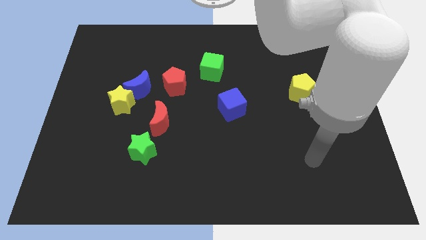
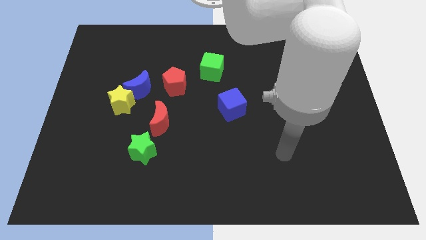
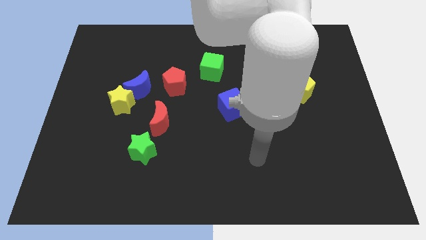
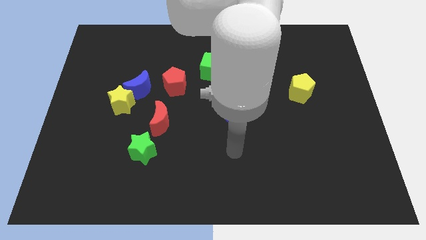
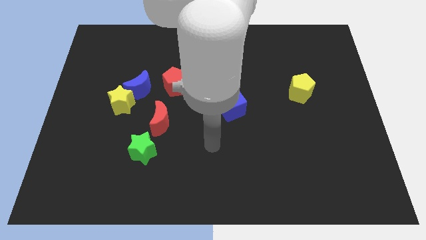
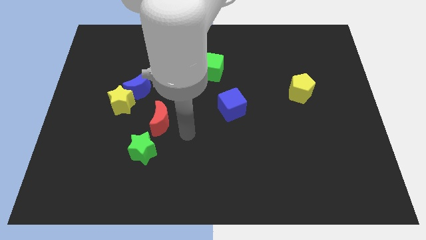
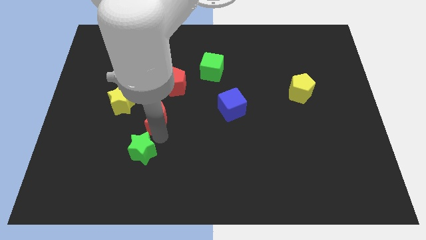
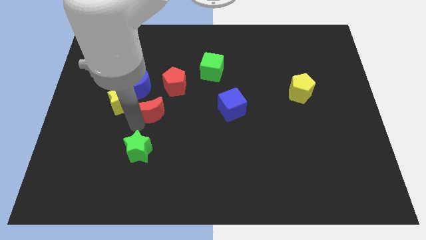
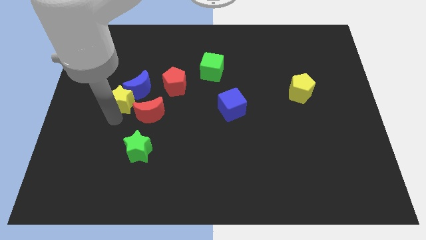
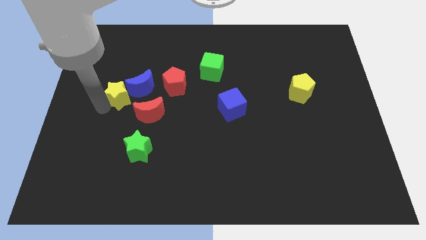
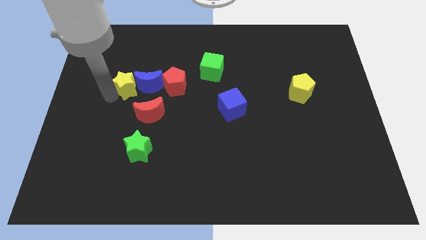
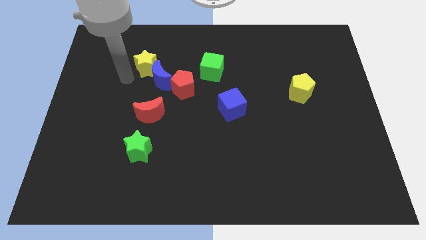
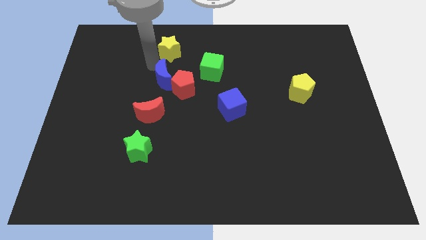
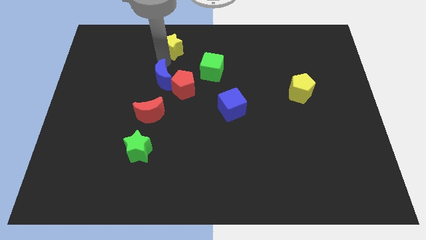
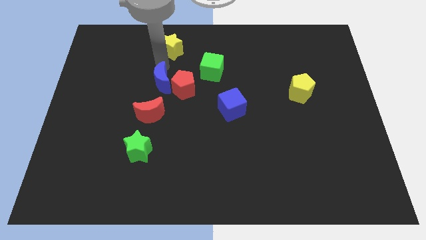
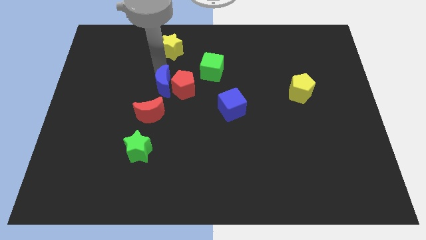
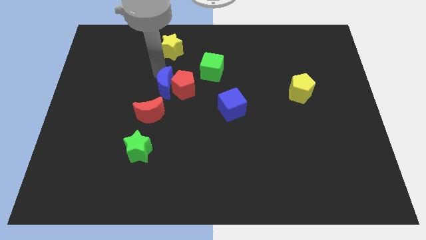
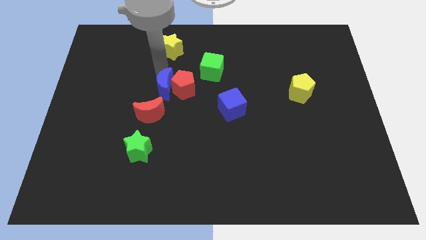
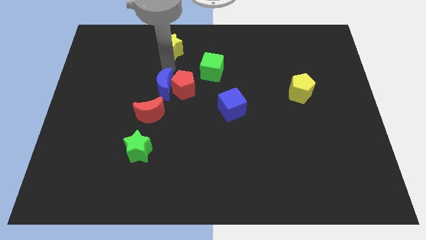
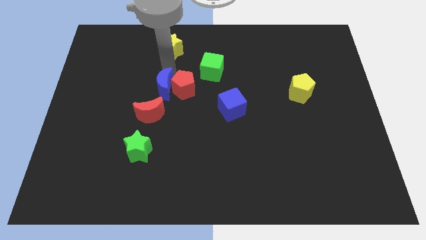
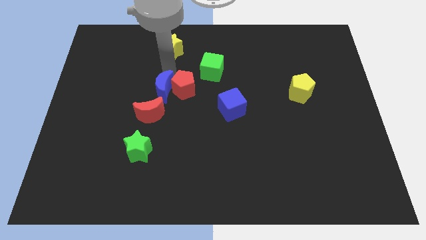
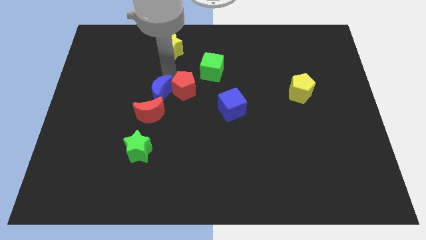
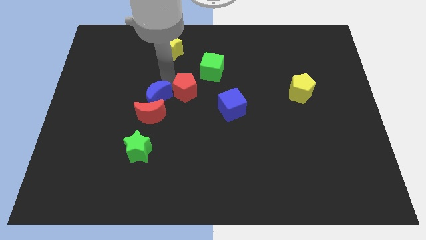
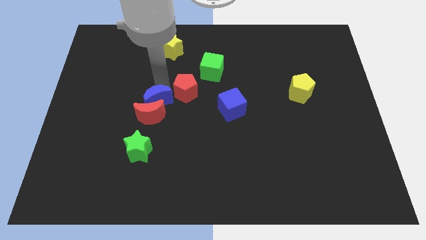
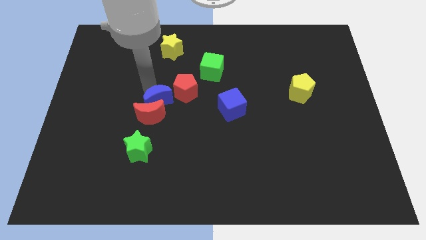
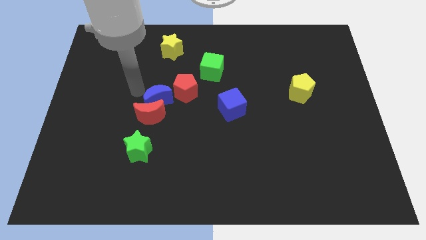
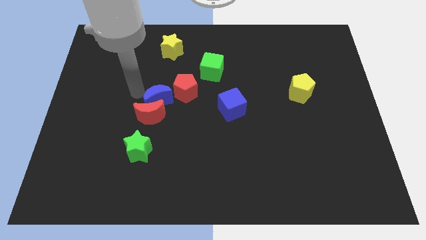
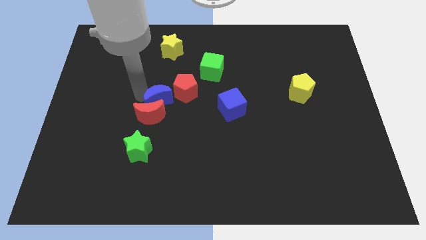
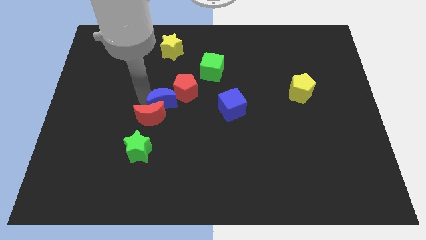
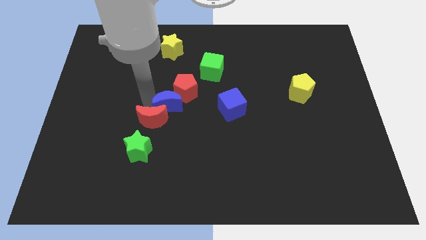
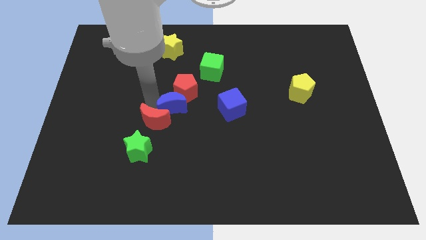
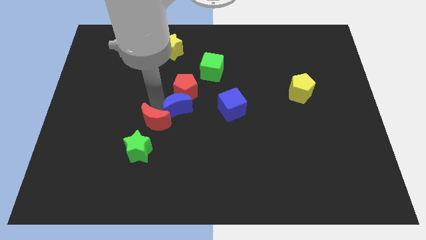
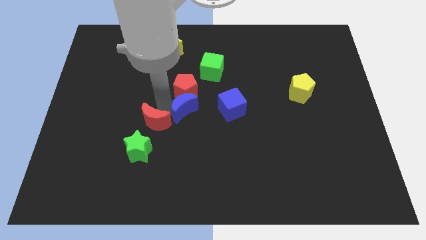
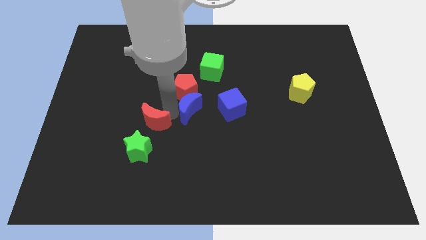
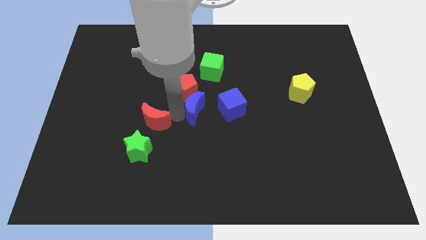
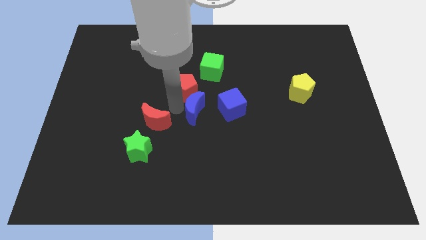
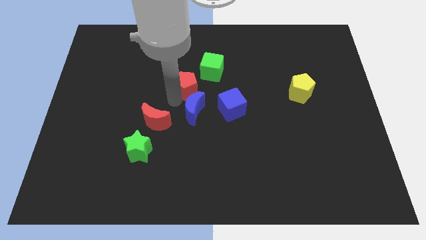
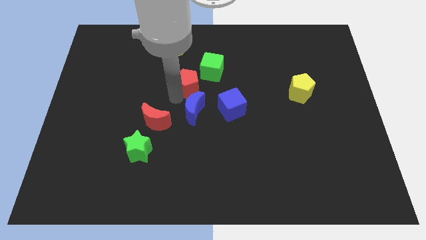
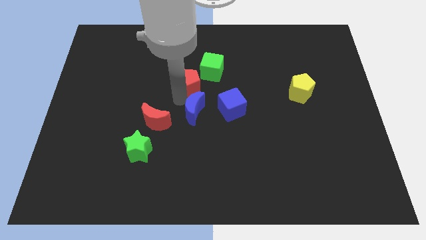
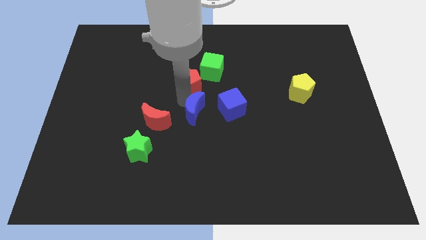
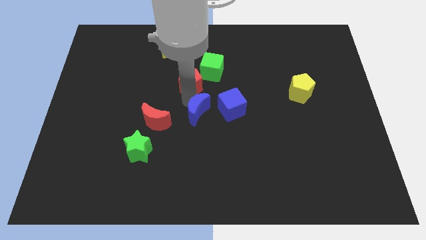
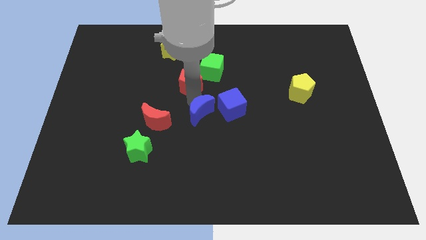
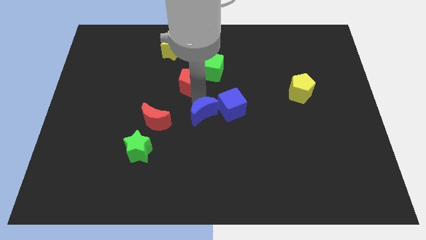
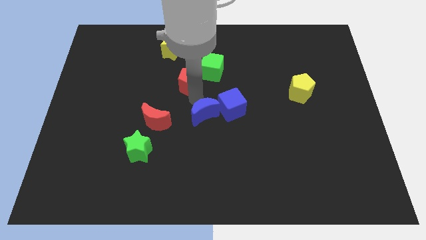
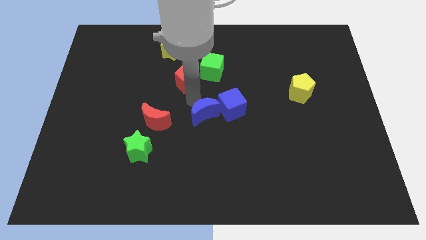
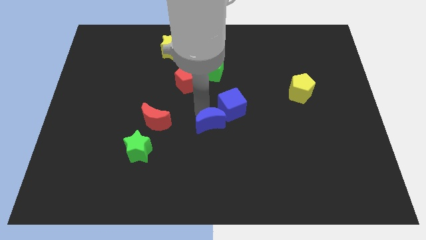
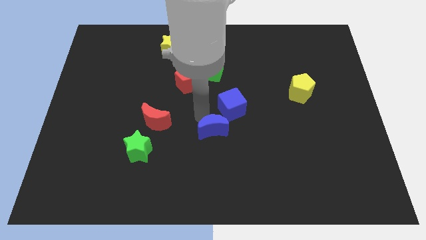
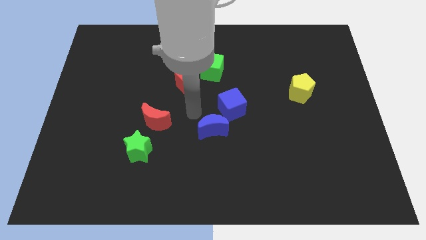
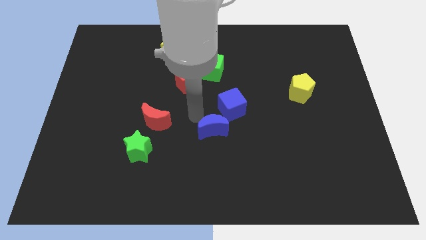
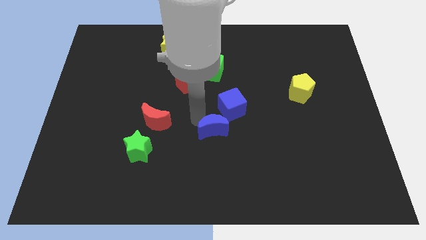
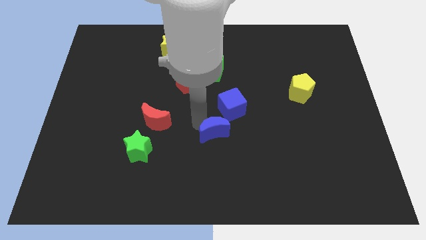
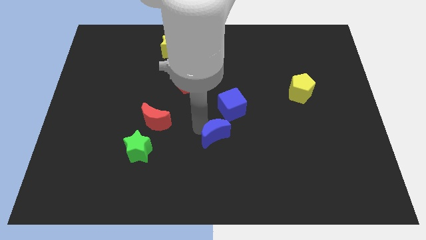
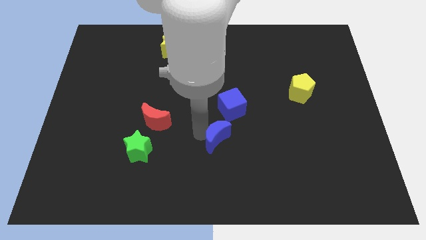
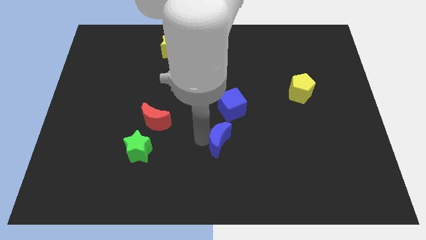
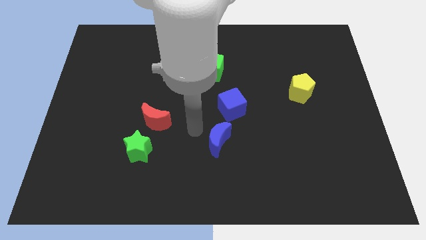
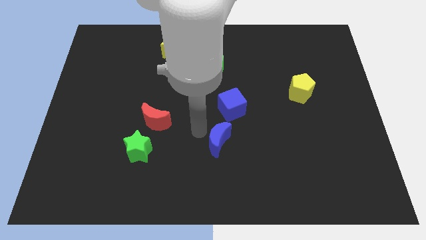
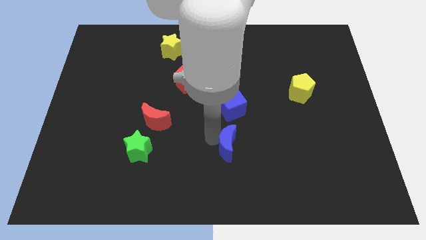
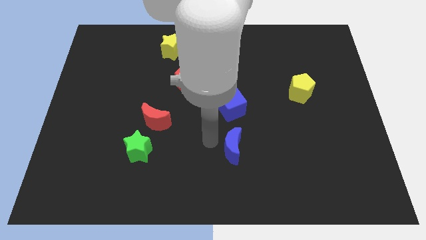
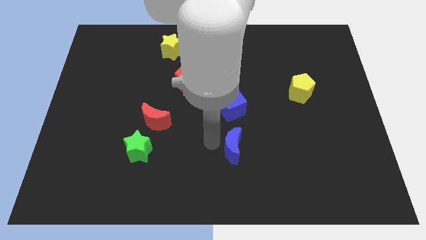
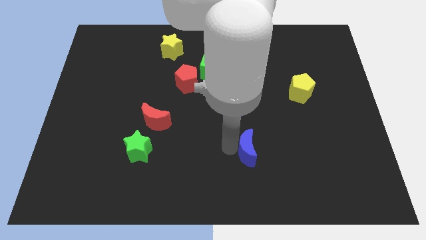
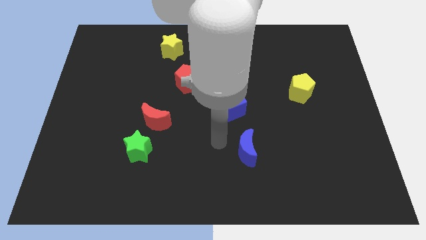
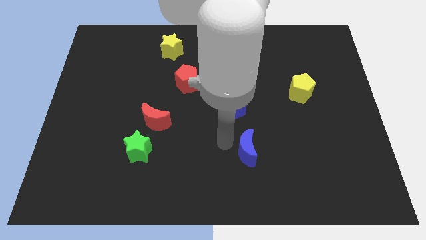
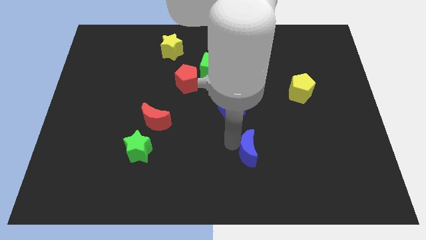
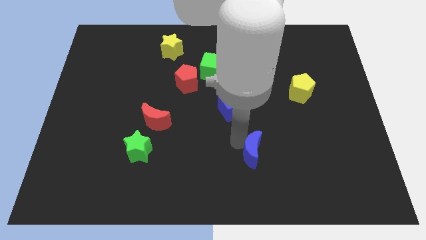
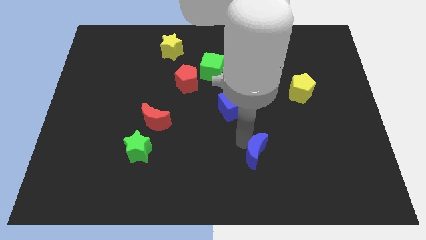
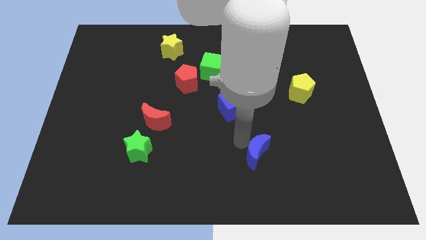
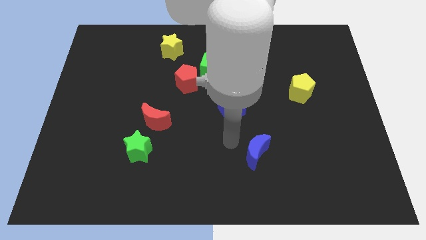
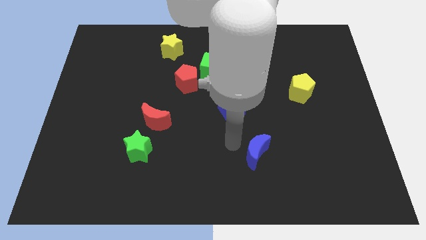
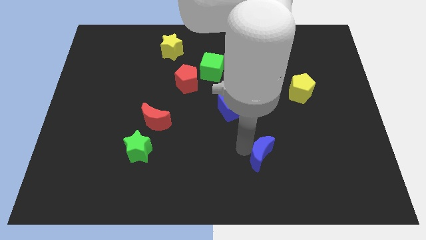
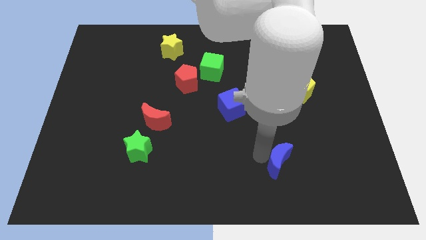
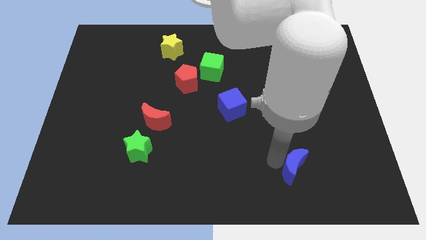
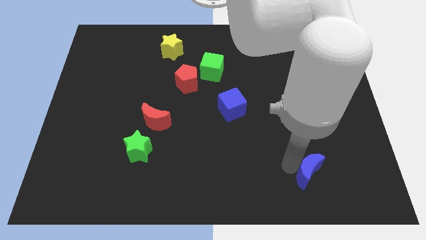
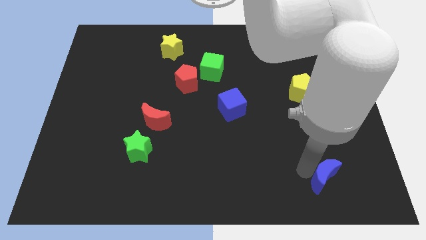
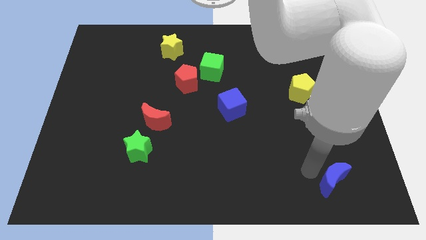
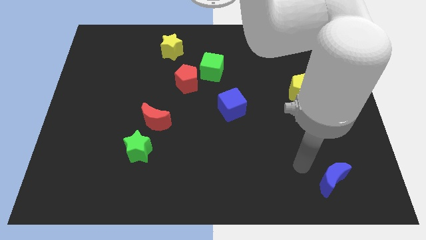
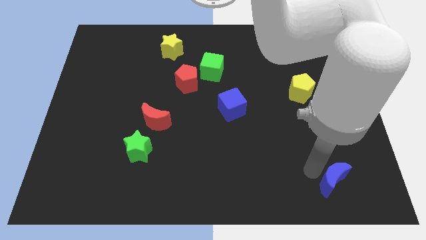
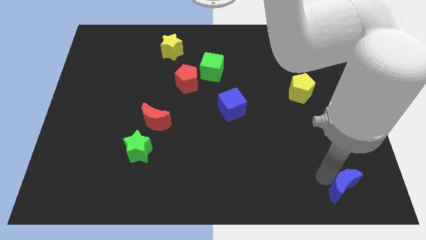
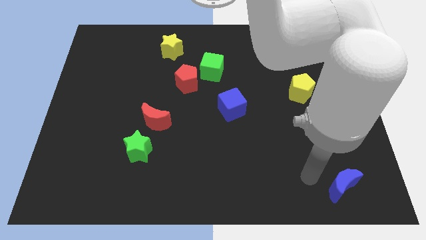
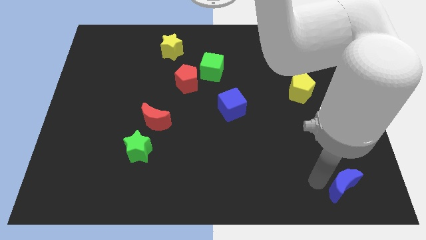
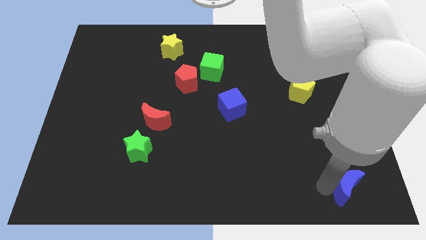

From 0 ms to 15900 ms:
push the blue moon to the bottom right of the board

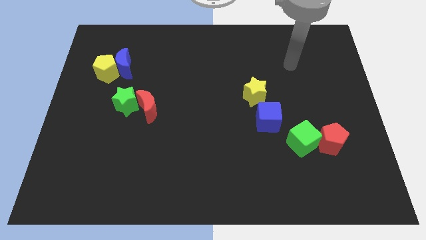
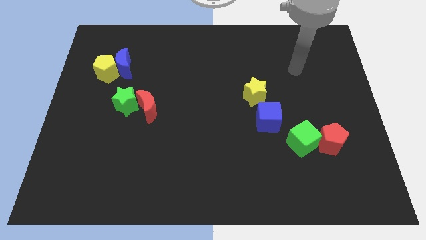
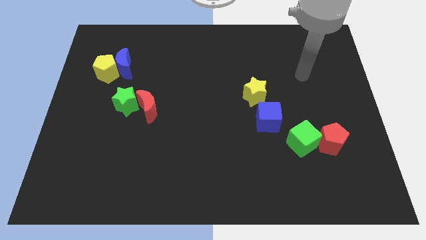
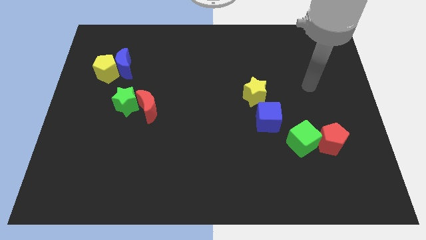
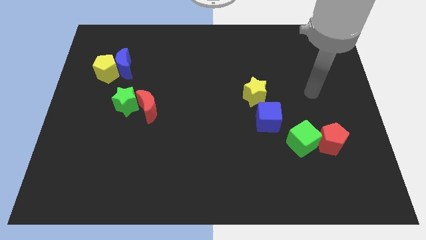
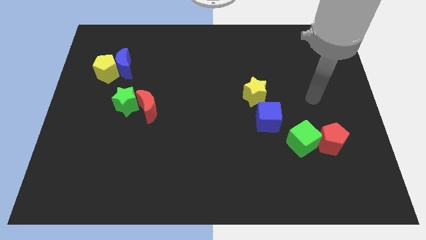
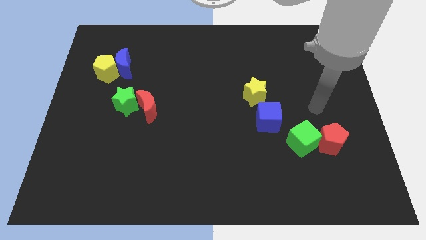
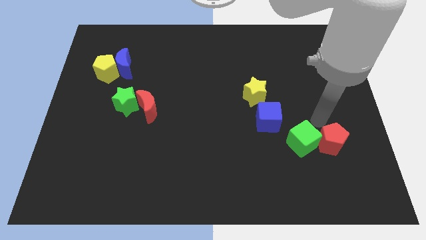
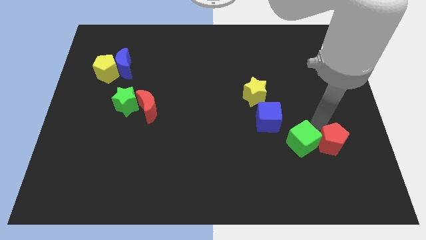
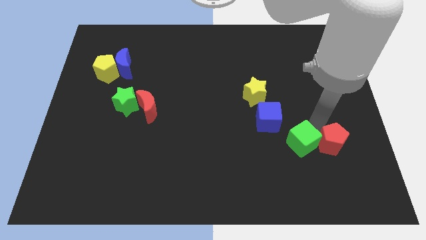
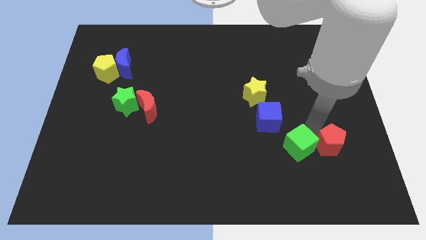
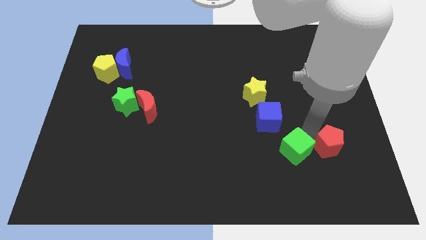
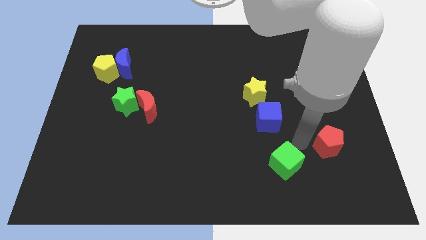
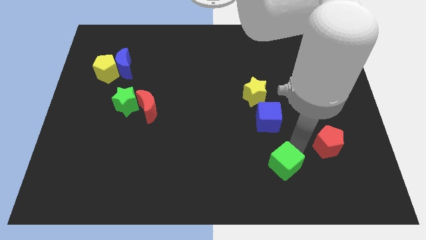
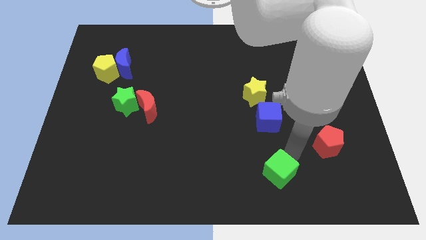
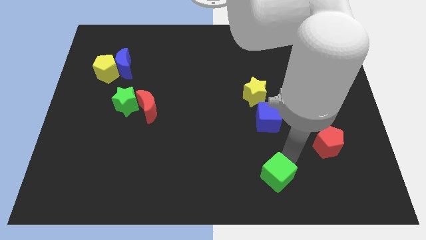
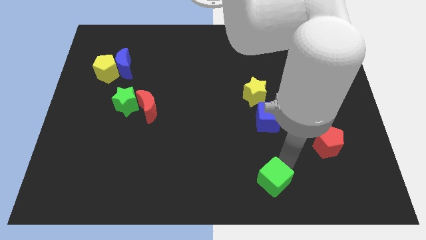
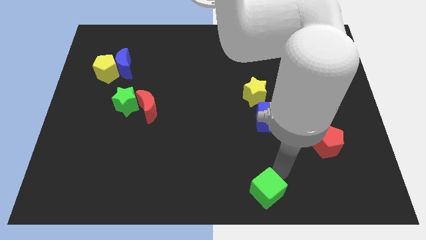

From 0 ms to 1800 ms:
move the green cube to the bottom
